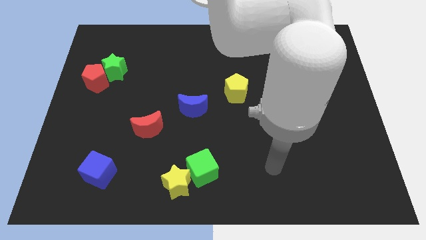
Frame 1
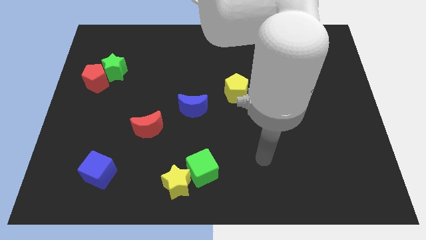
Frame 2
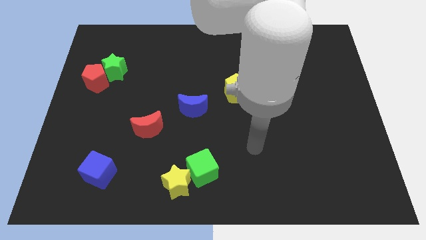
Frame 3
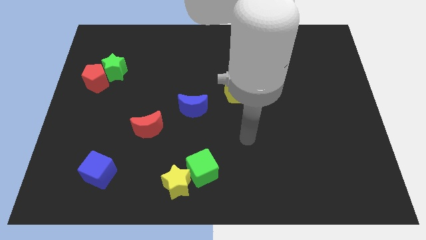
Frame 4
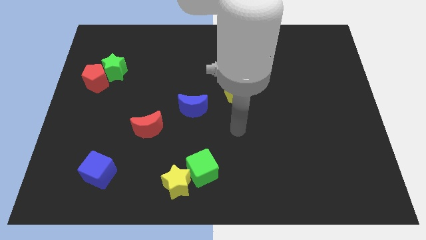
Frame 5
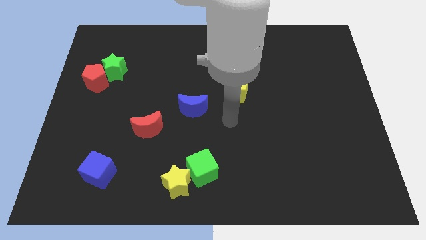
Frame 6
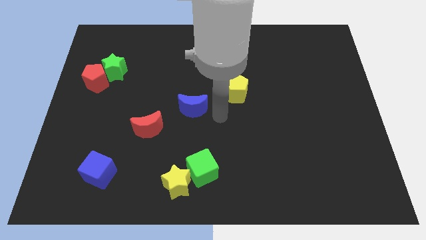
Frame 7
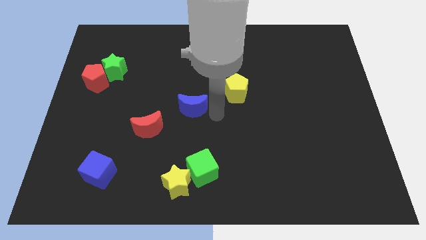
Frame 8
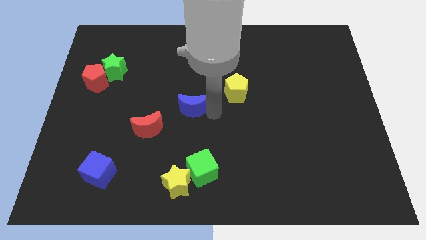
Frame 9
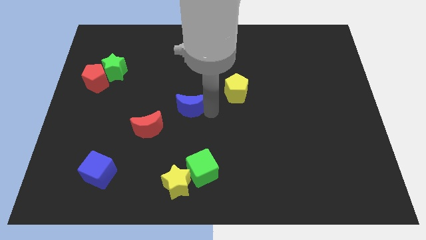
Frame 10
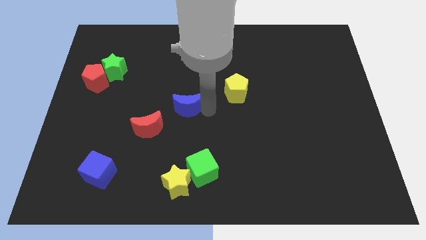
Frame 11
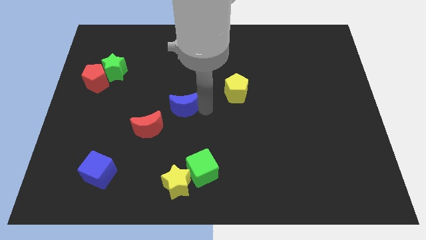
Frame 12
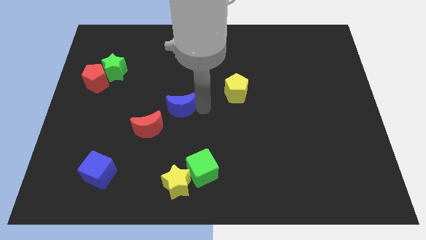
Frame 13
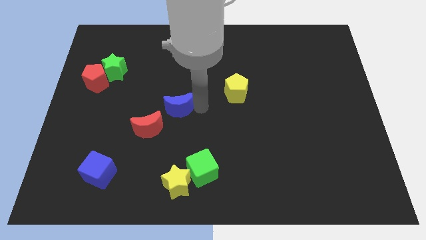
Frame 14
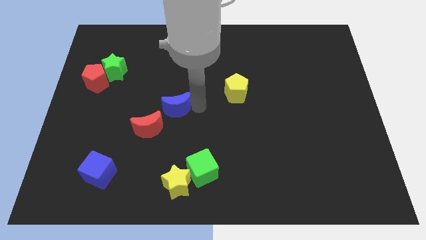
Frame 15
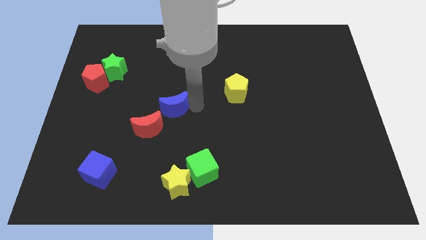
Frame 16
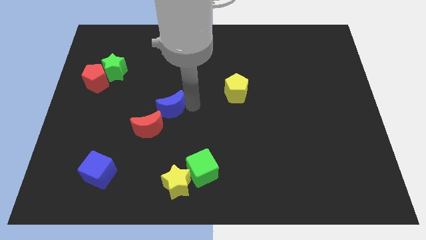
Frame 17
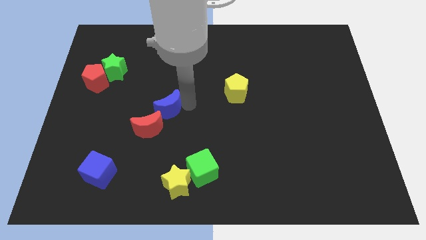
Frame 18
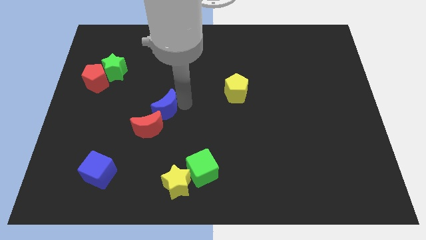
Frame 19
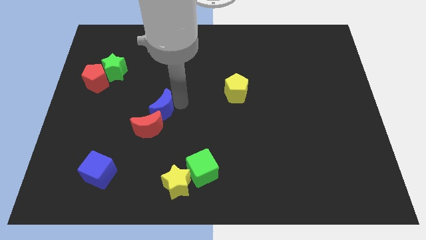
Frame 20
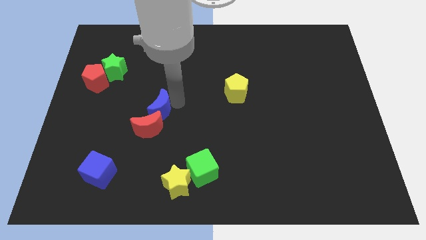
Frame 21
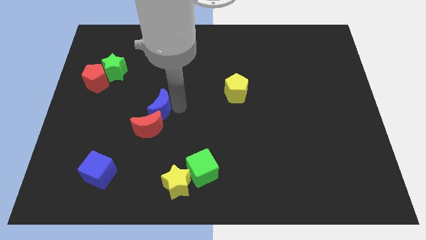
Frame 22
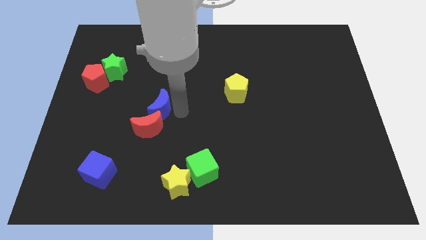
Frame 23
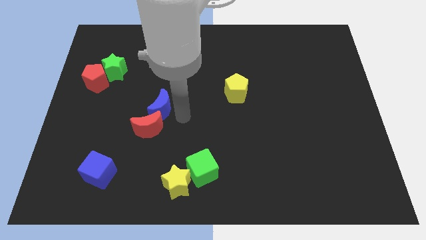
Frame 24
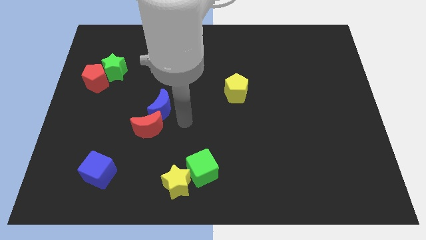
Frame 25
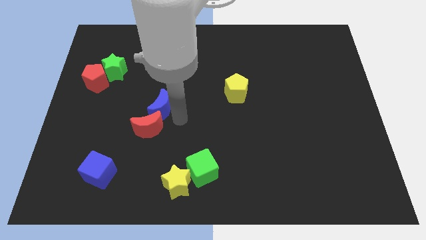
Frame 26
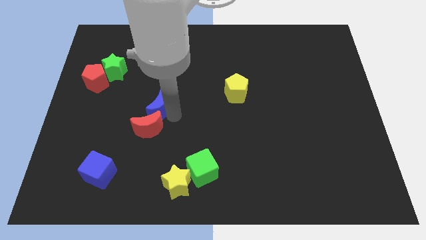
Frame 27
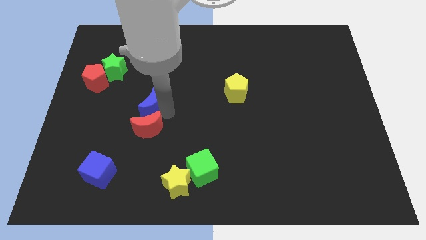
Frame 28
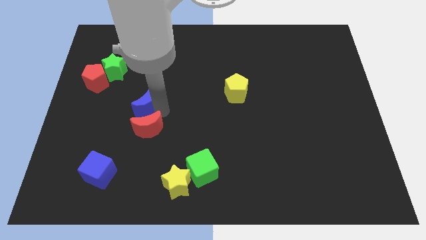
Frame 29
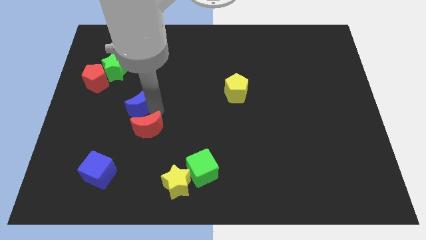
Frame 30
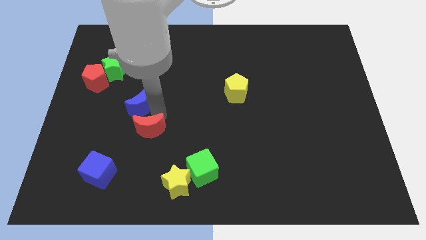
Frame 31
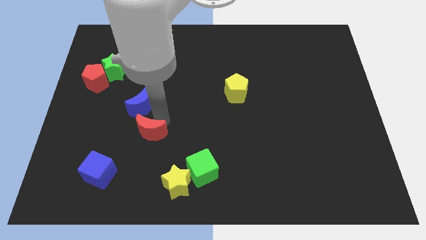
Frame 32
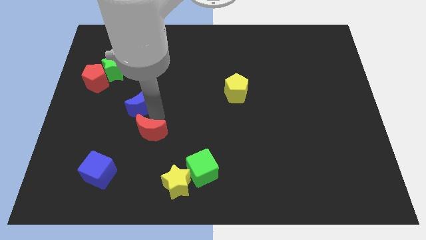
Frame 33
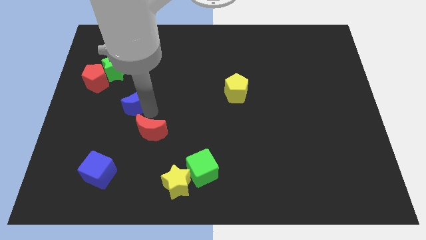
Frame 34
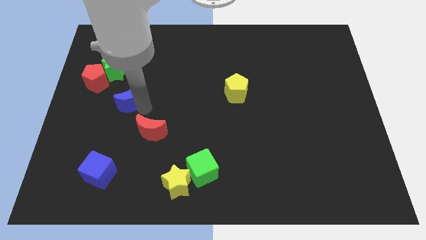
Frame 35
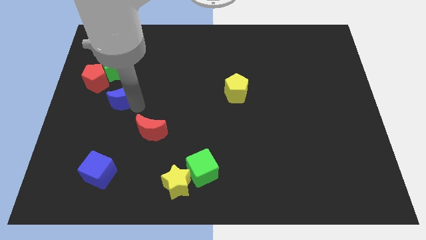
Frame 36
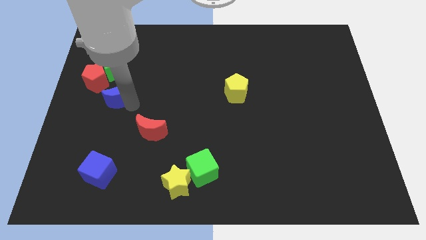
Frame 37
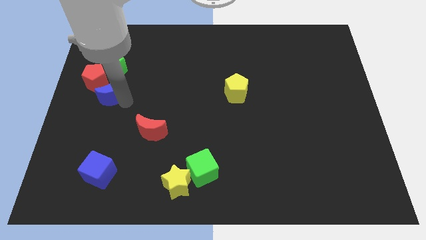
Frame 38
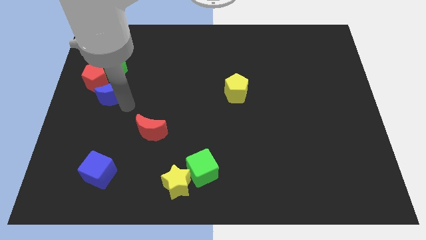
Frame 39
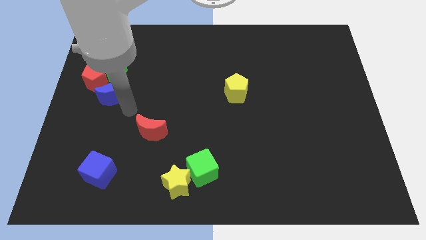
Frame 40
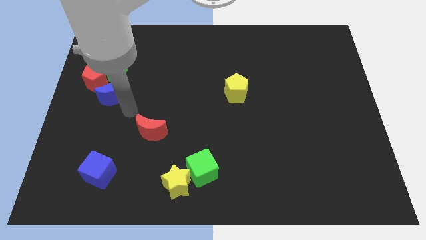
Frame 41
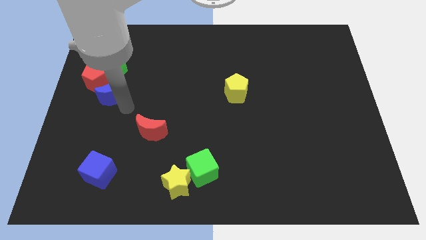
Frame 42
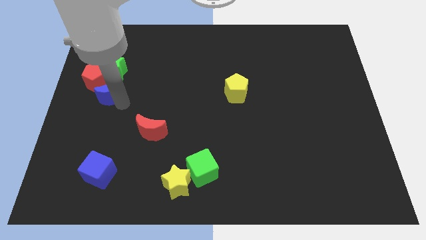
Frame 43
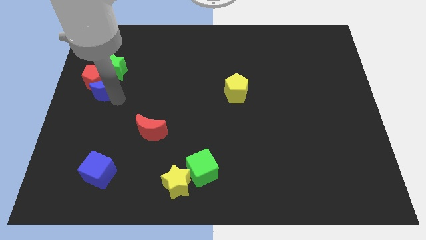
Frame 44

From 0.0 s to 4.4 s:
put the blue moon close to the red pentagon

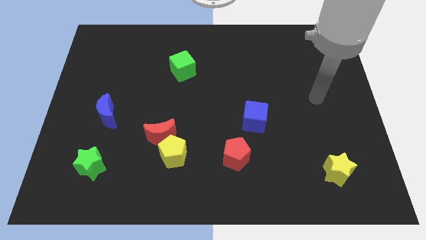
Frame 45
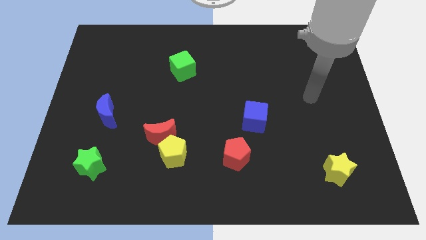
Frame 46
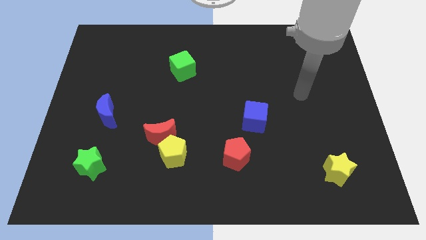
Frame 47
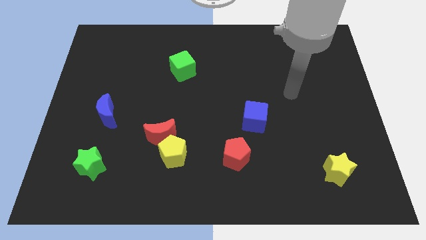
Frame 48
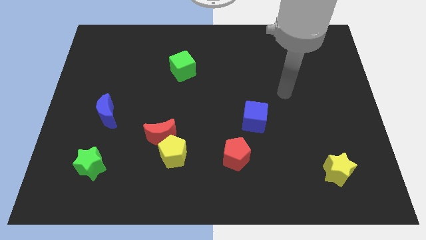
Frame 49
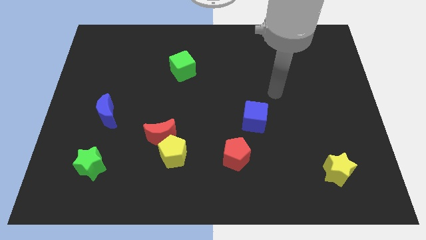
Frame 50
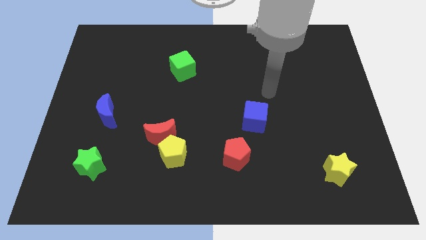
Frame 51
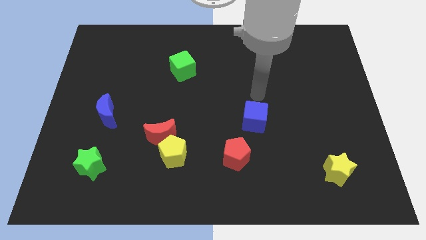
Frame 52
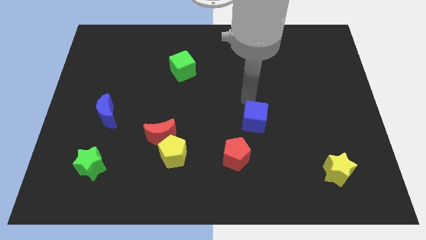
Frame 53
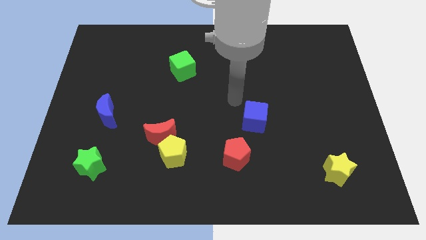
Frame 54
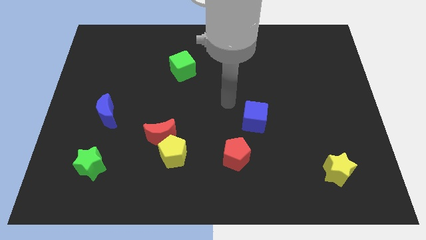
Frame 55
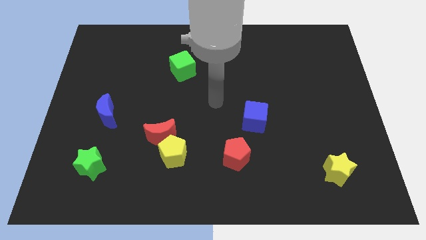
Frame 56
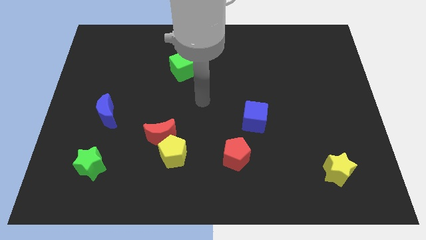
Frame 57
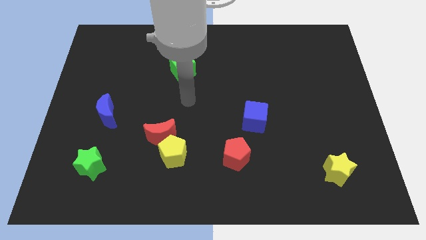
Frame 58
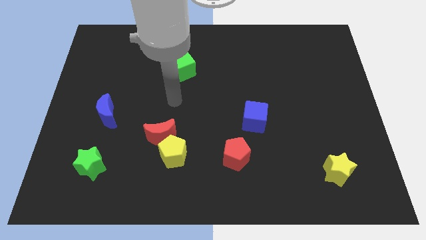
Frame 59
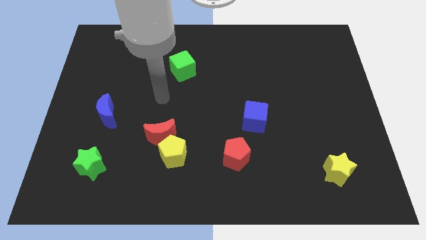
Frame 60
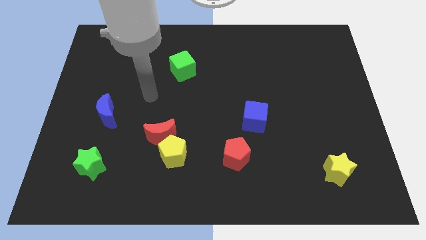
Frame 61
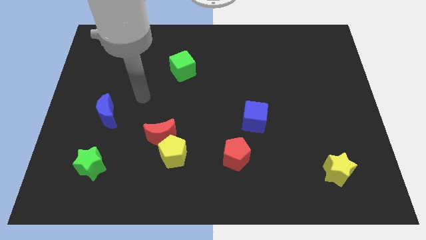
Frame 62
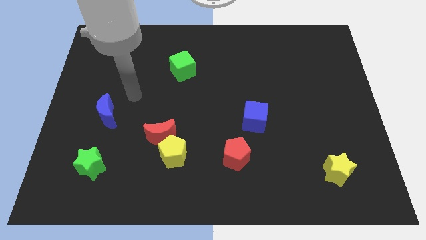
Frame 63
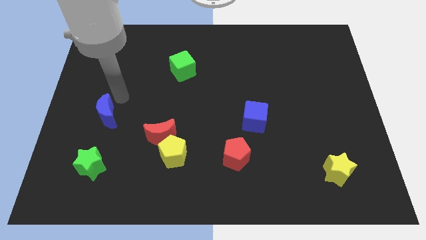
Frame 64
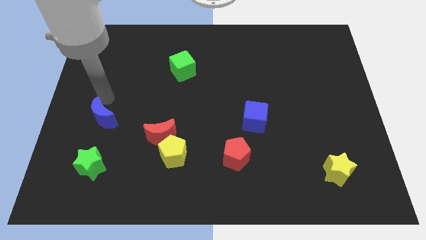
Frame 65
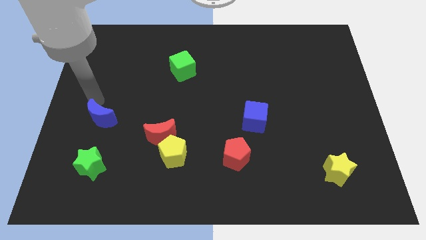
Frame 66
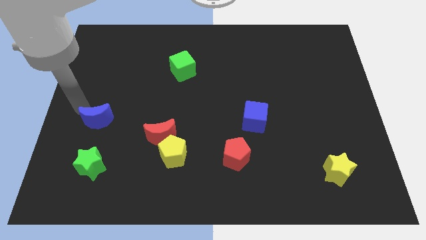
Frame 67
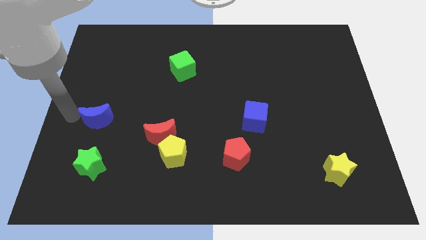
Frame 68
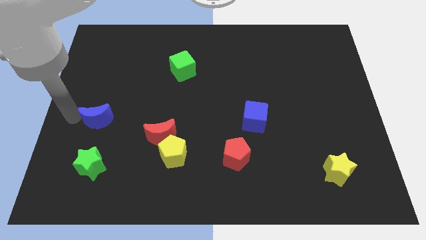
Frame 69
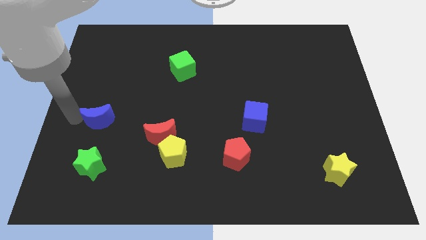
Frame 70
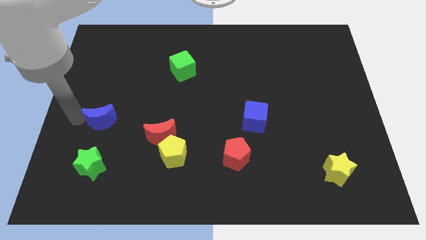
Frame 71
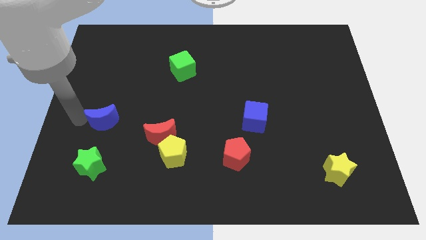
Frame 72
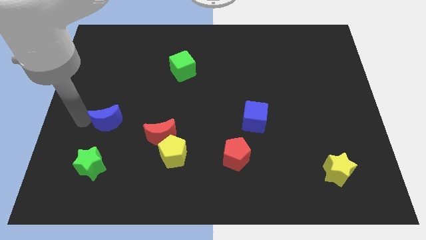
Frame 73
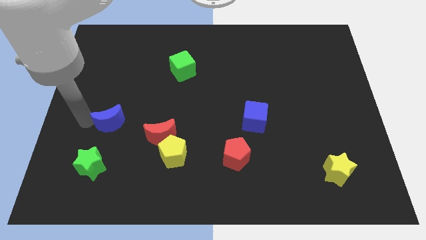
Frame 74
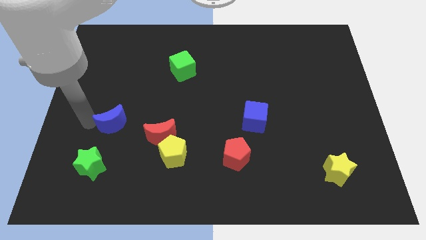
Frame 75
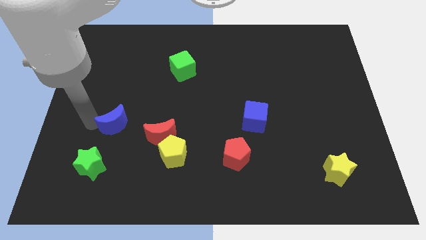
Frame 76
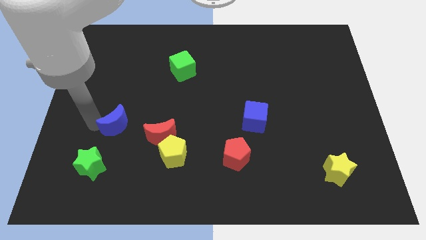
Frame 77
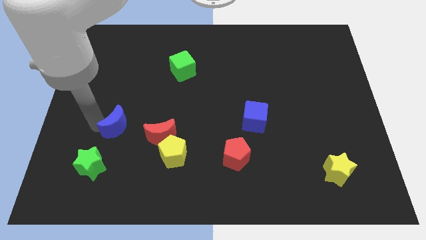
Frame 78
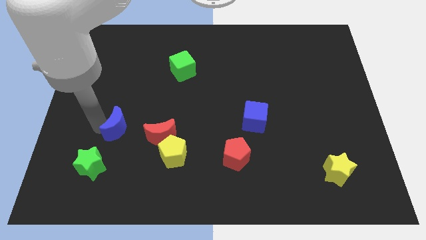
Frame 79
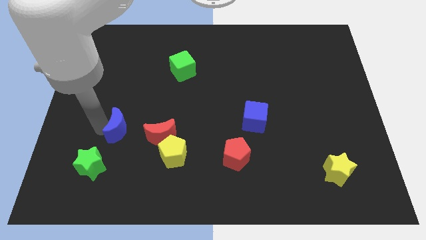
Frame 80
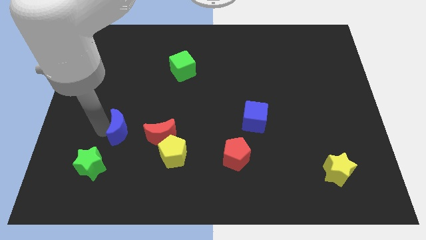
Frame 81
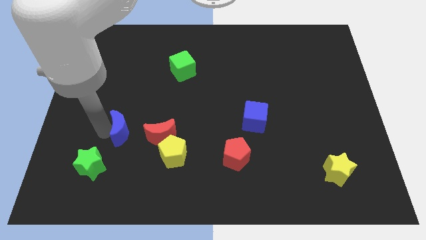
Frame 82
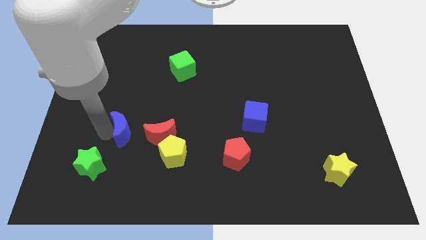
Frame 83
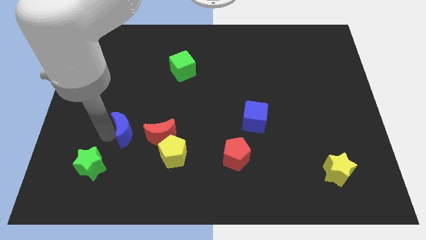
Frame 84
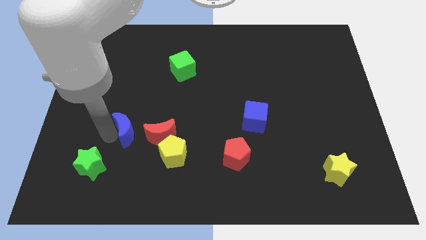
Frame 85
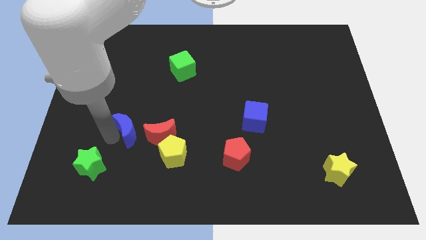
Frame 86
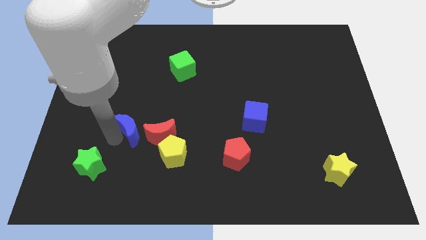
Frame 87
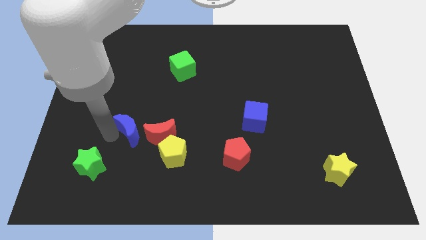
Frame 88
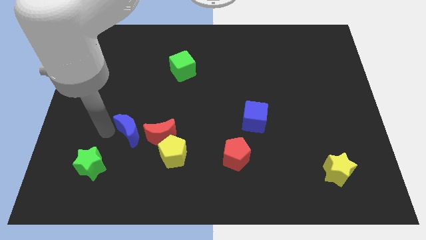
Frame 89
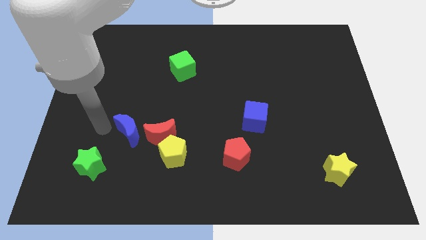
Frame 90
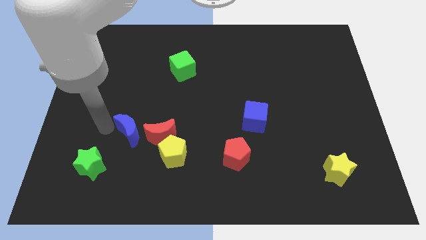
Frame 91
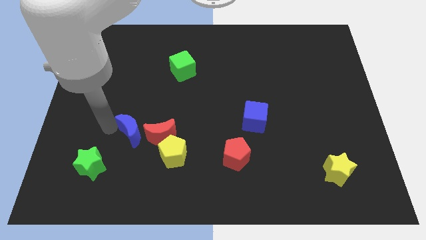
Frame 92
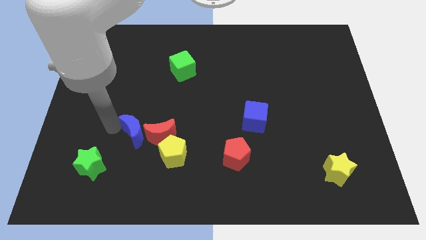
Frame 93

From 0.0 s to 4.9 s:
push the blue moon towards the red moon
